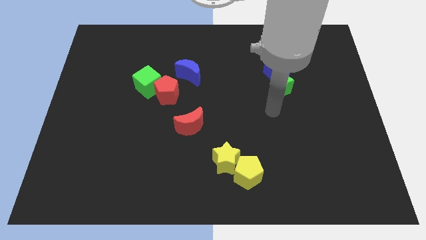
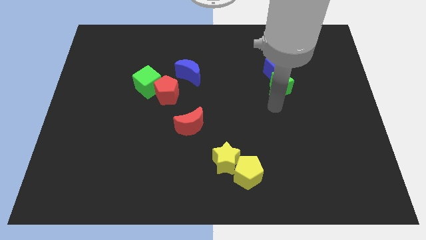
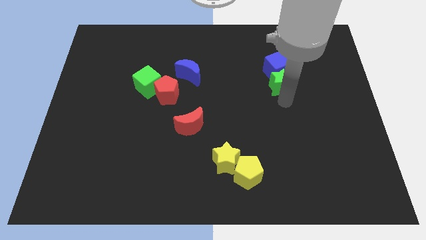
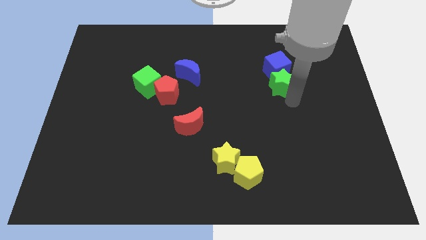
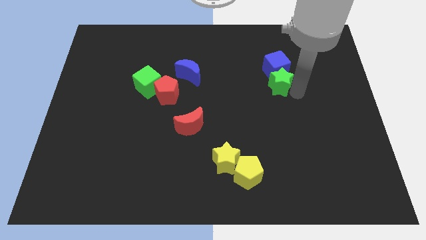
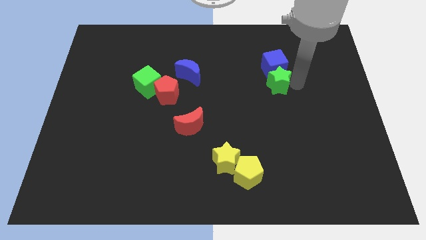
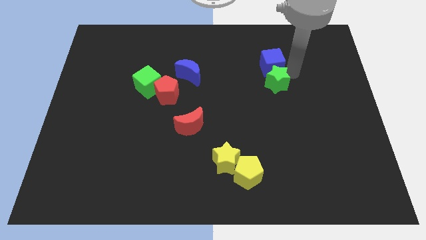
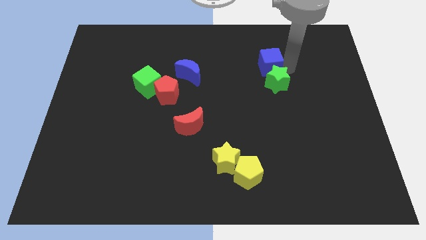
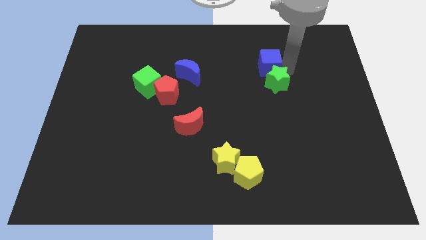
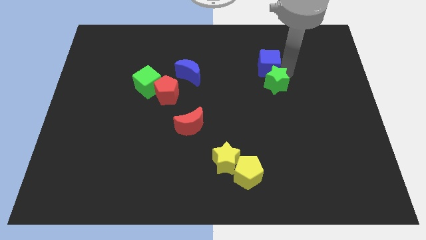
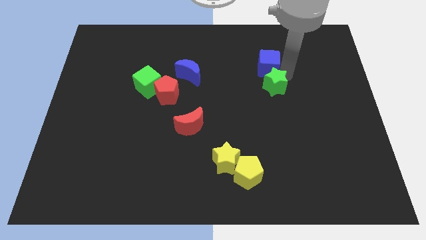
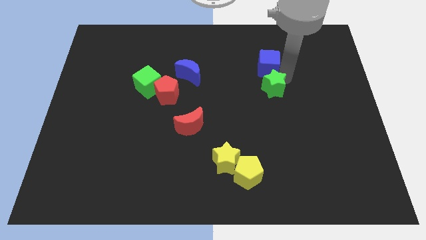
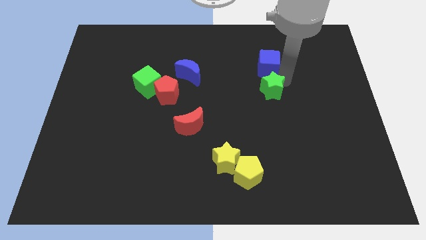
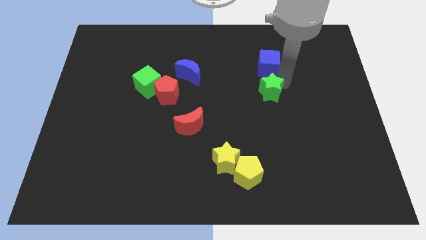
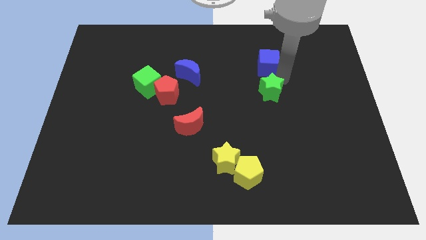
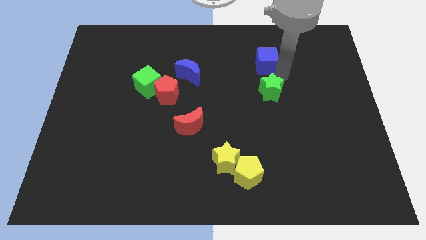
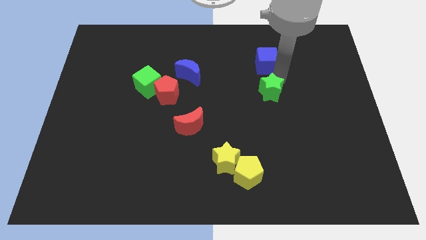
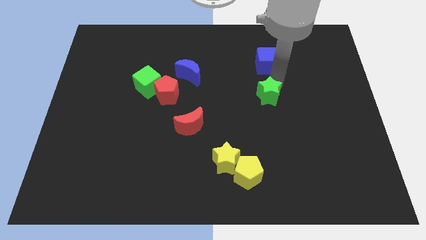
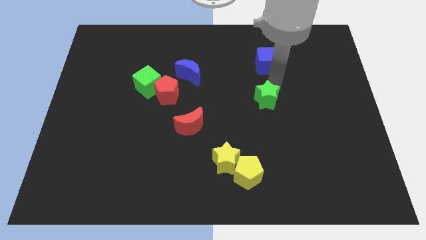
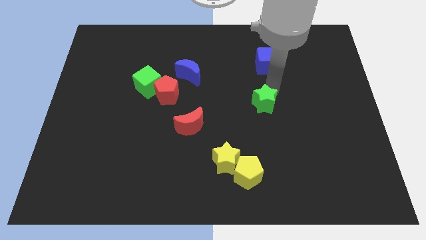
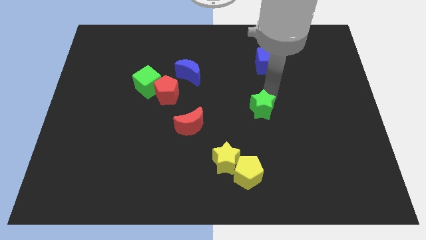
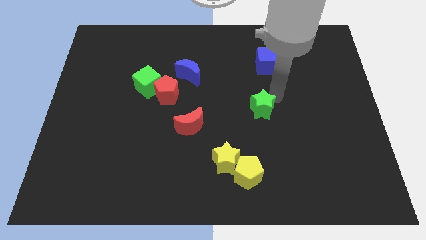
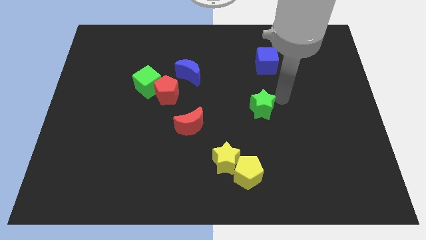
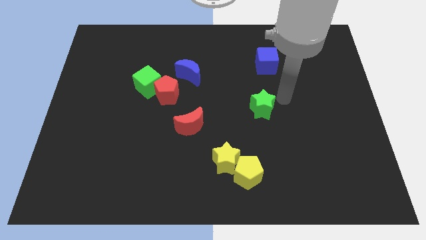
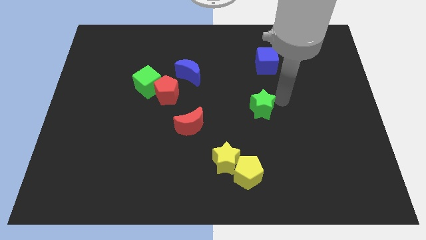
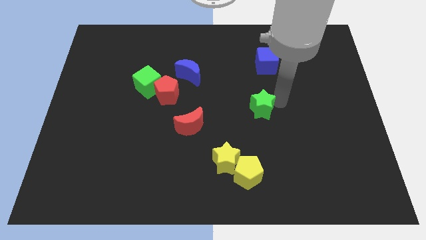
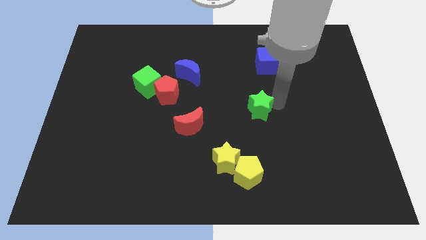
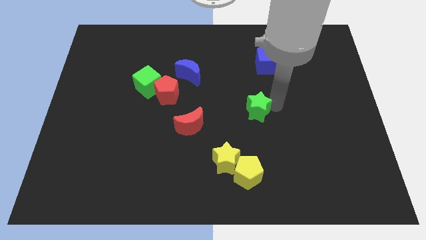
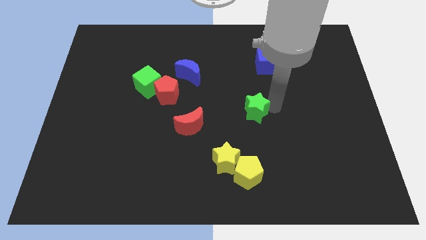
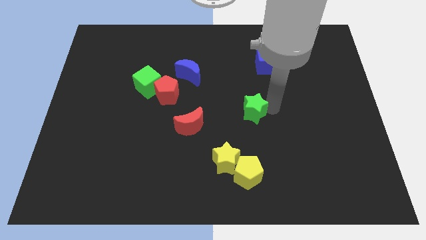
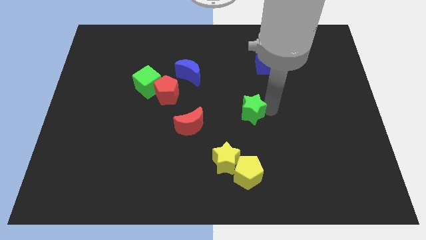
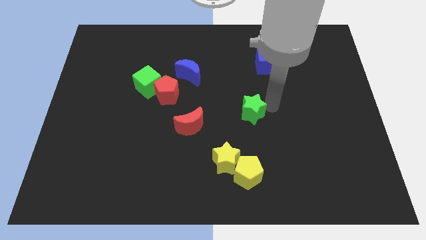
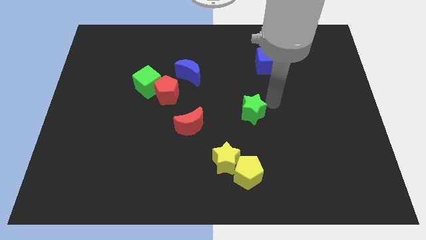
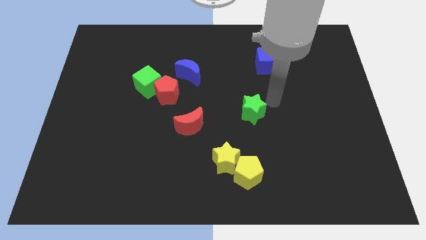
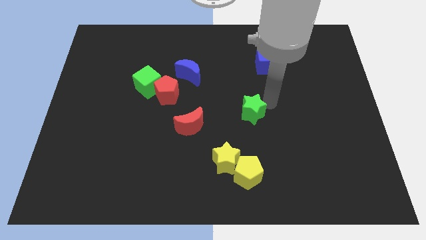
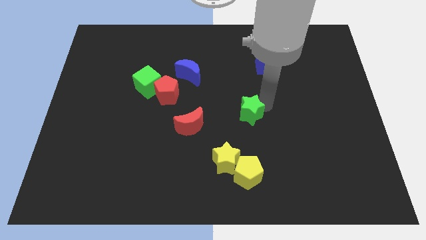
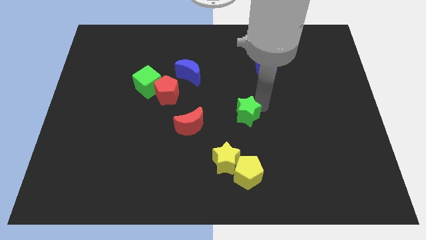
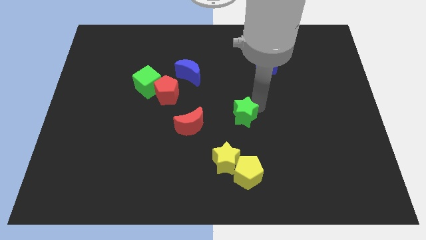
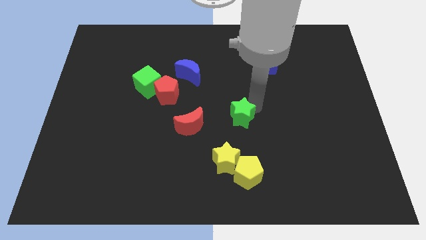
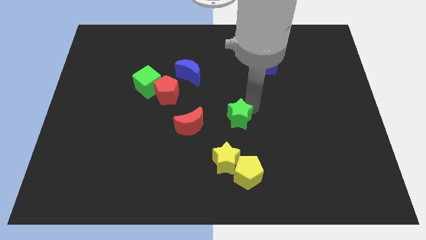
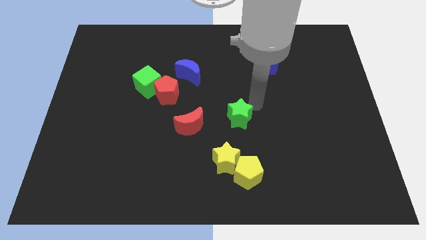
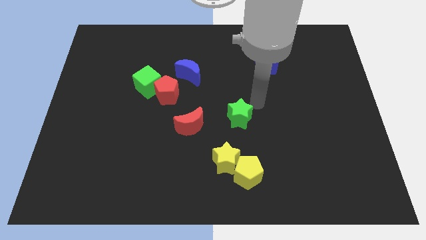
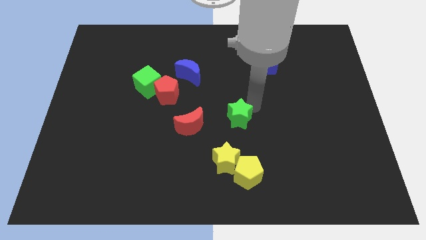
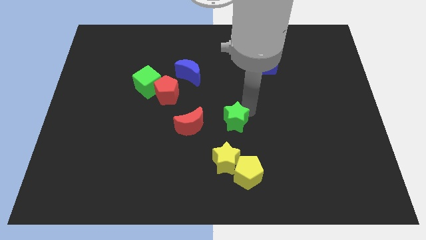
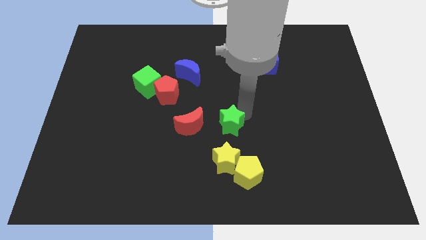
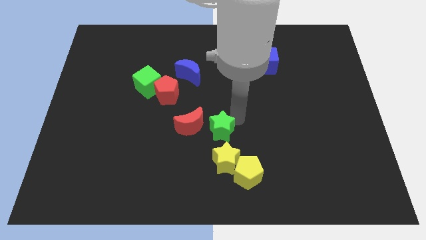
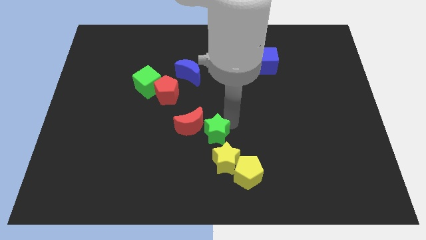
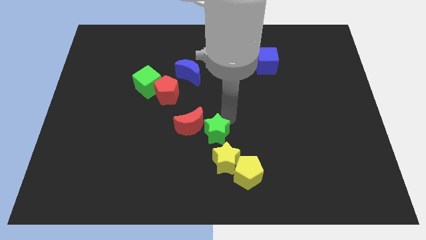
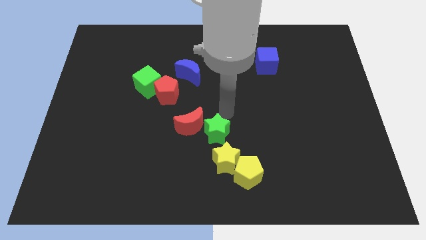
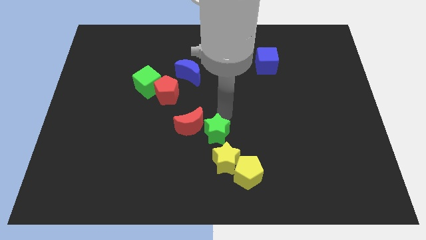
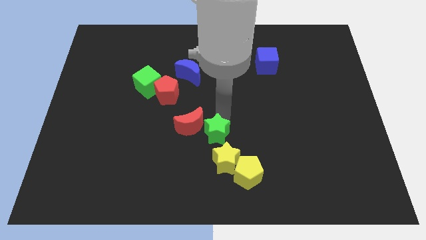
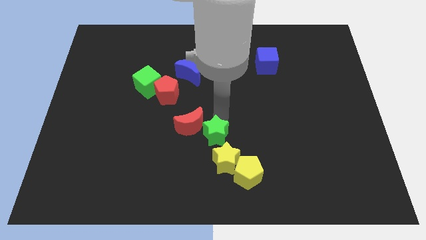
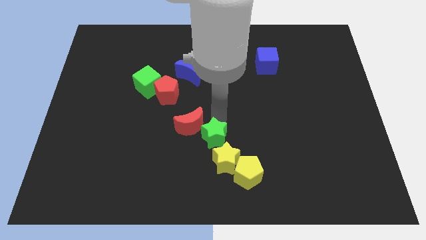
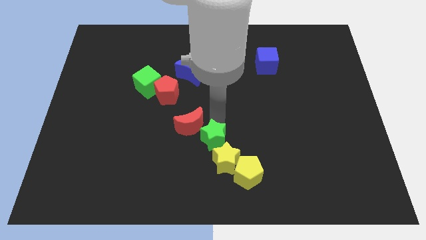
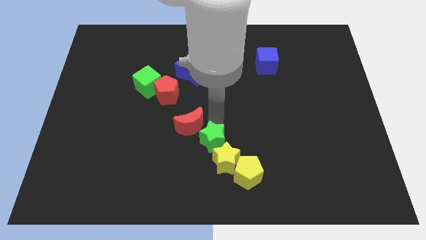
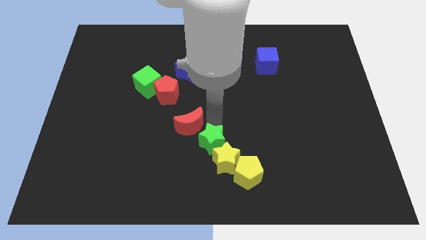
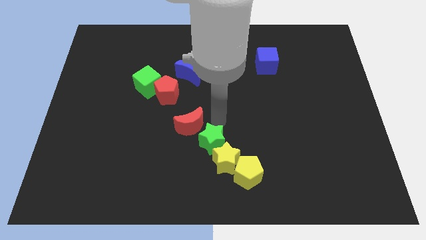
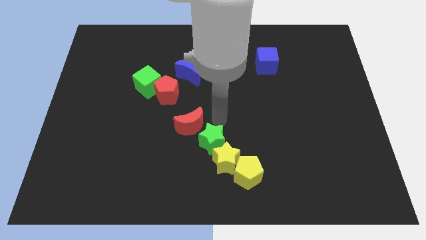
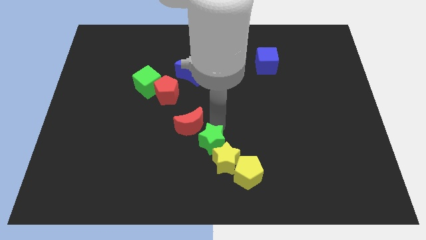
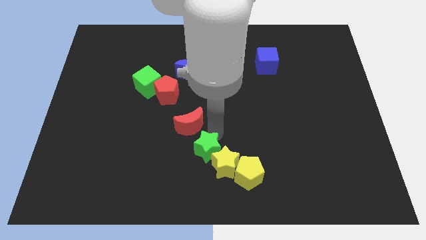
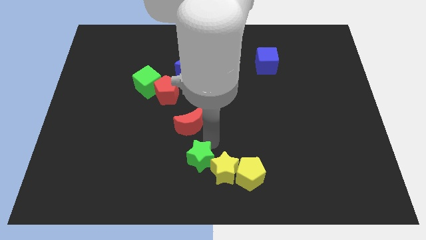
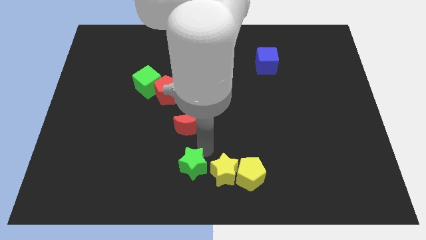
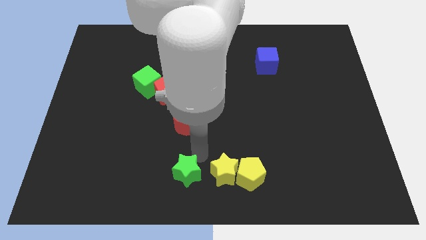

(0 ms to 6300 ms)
slide the green star to the bottom left of the yellow star

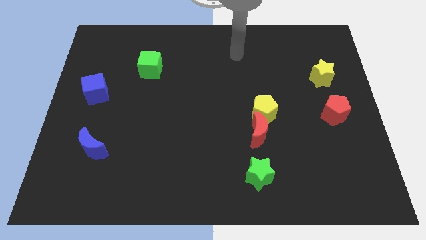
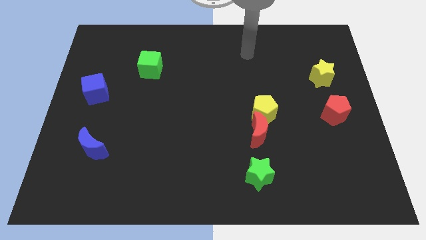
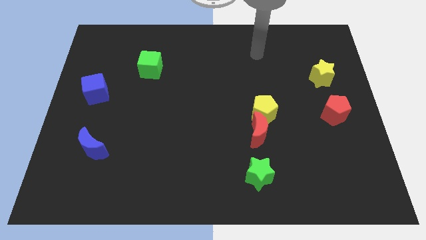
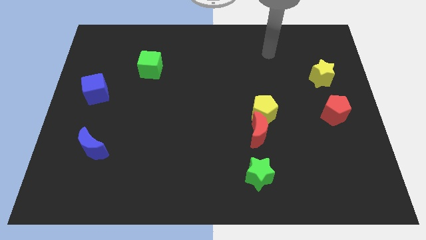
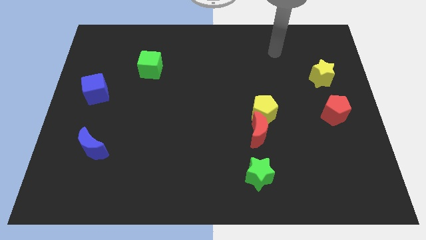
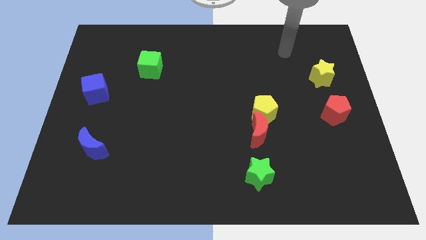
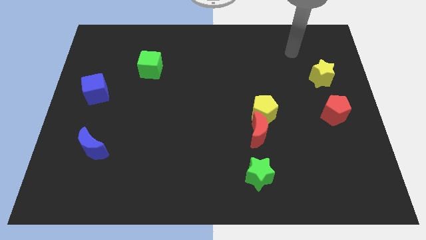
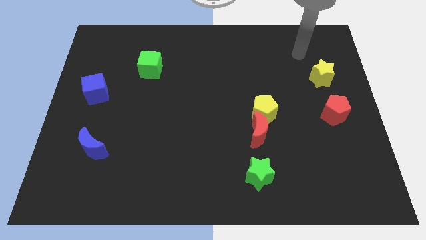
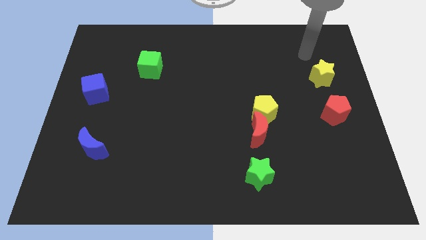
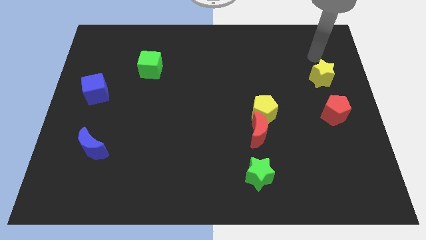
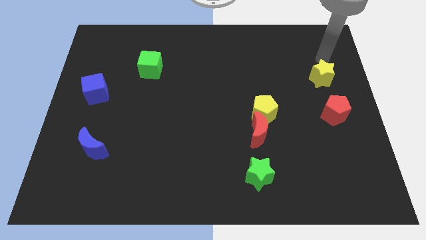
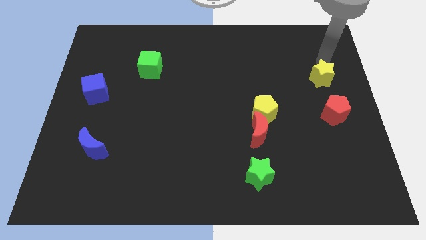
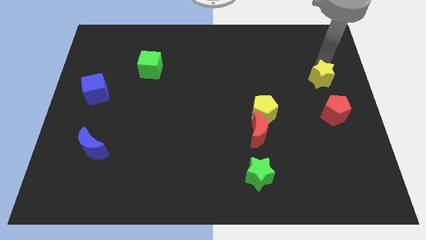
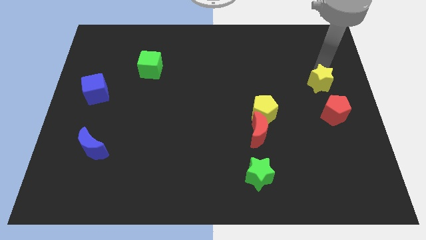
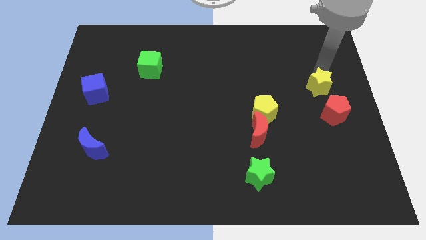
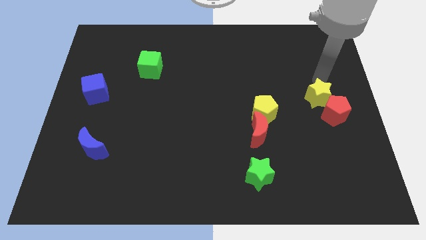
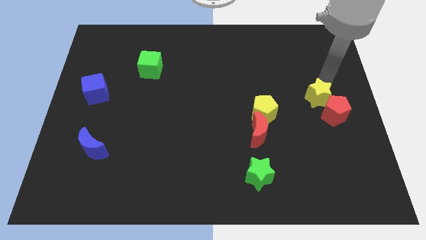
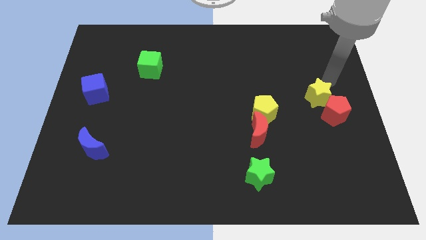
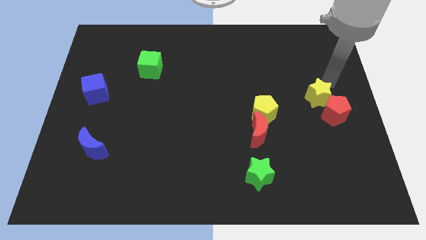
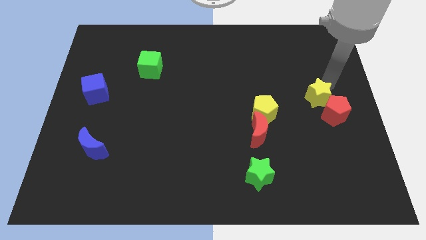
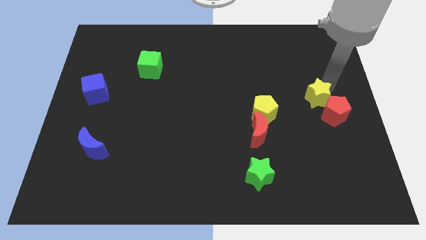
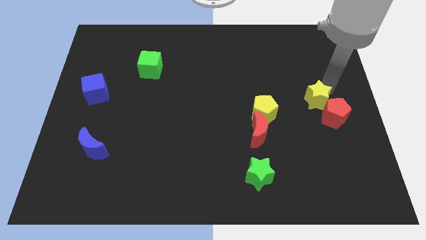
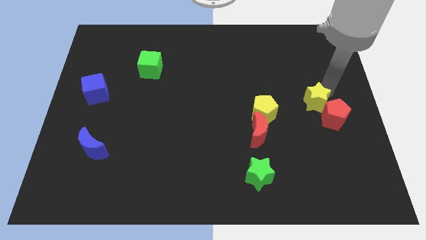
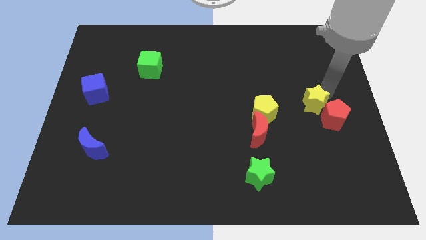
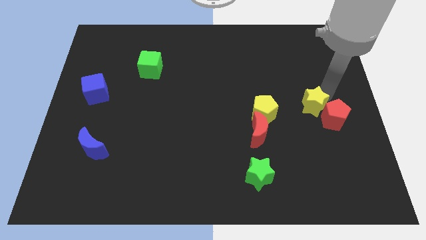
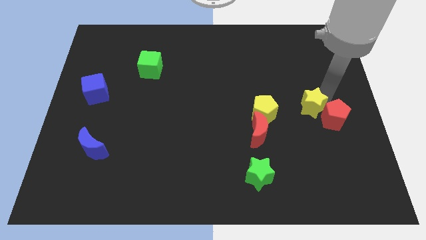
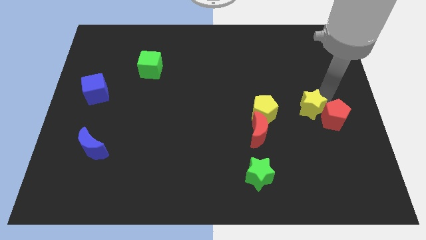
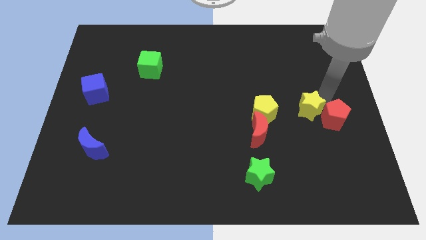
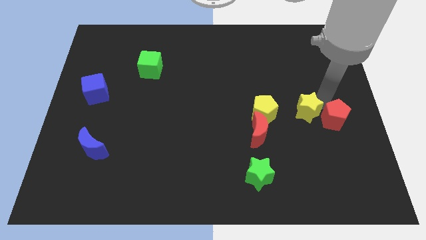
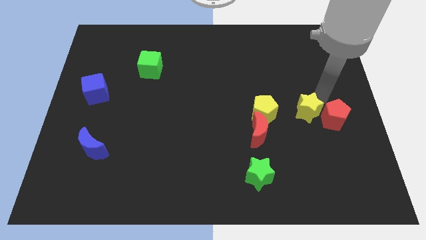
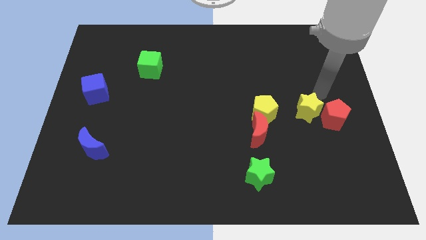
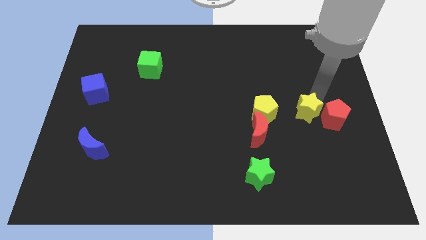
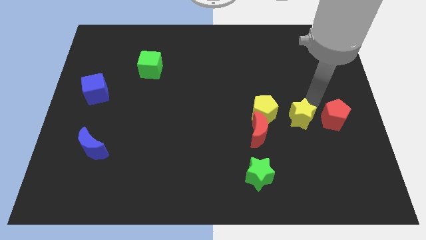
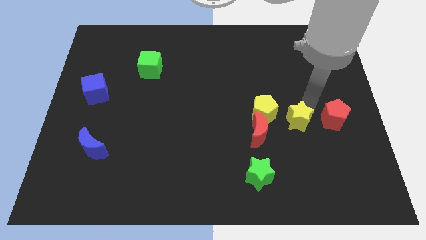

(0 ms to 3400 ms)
push the yellow star to the bottom right side of the yellow pentagon
